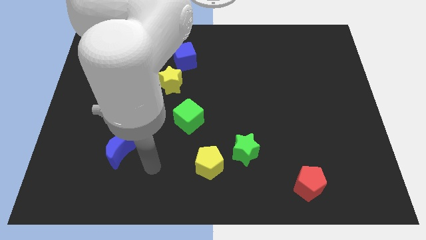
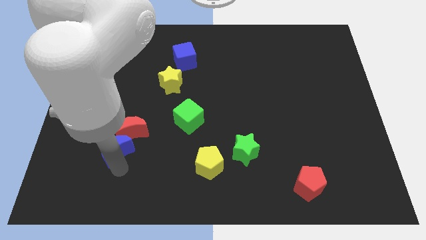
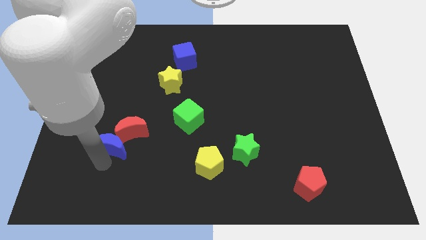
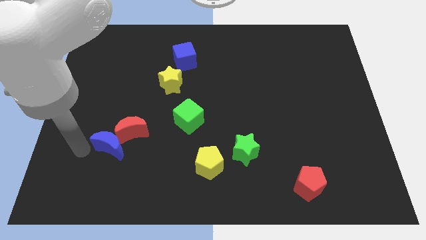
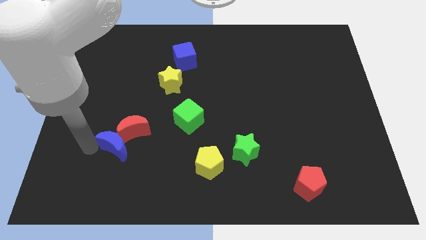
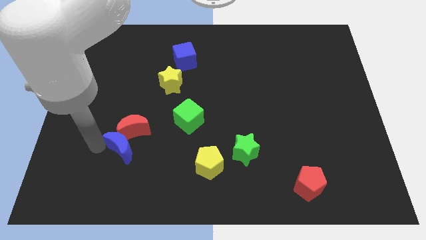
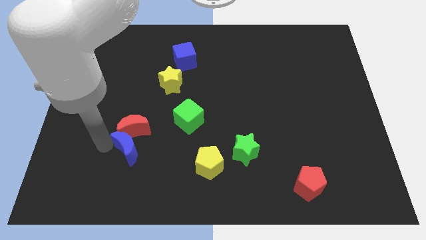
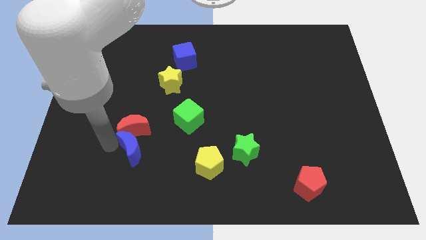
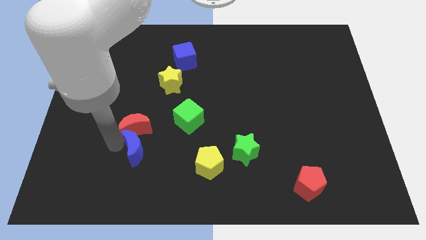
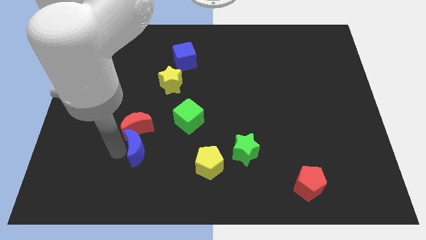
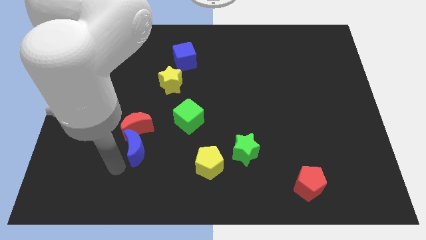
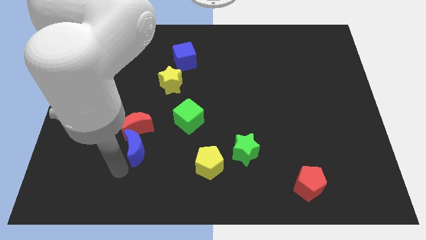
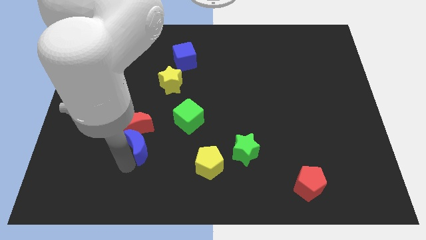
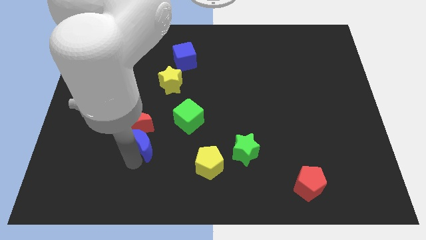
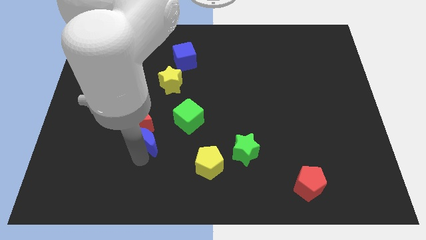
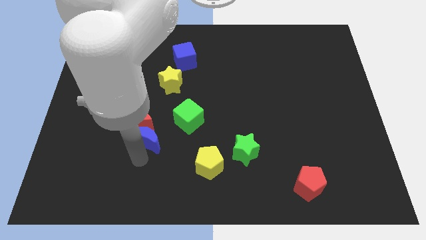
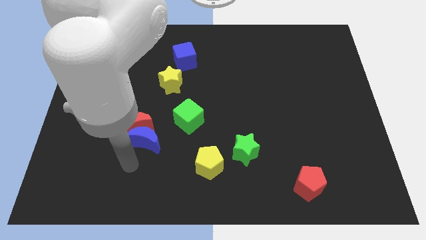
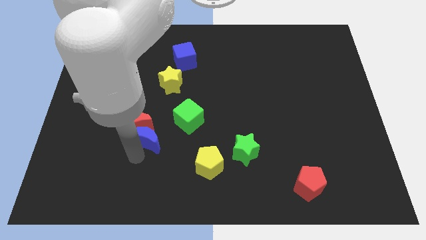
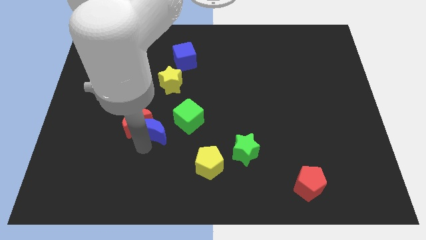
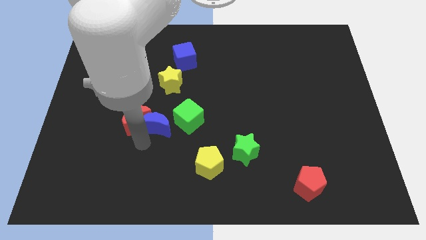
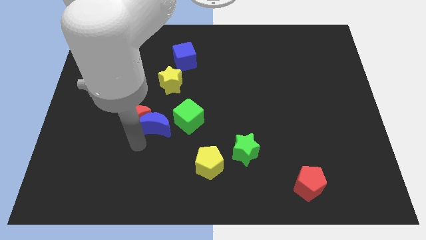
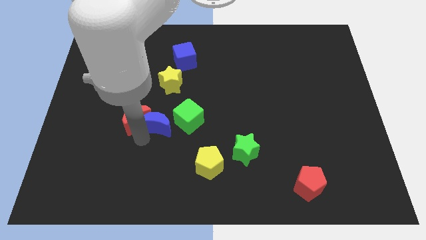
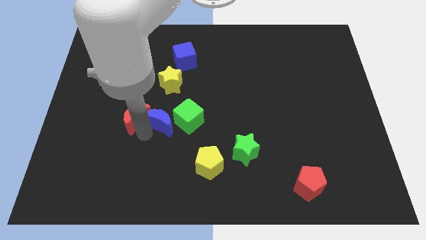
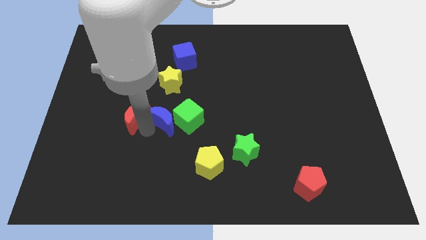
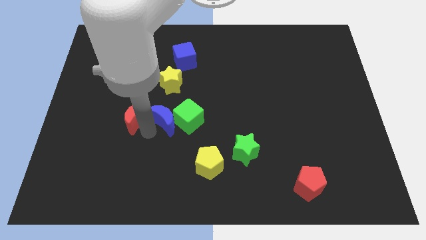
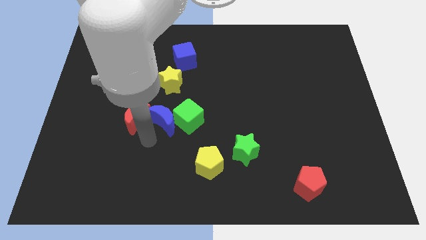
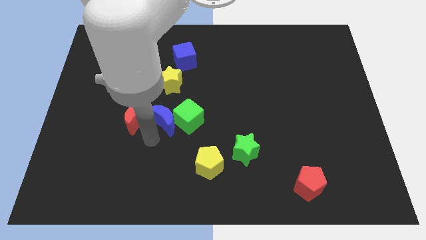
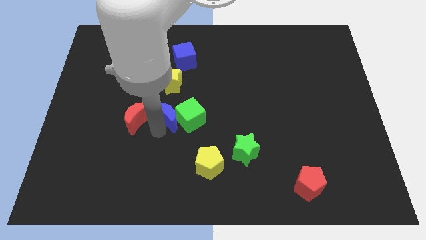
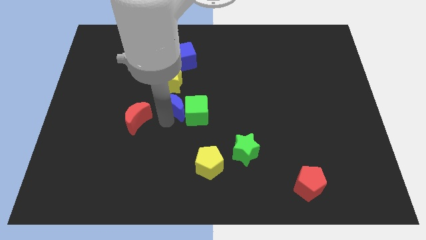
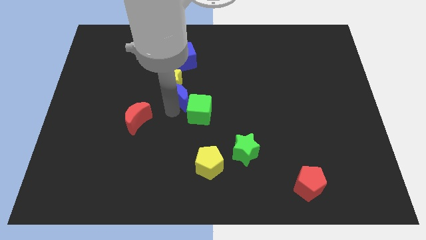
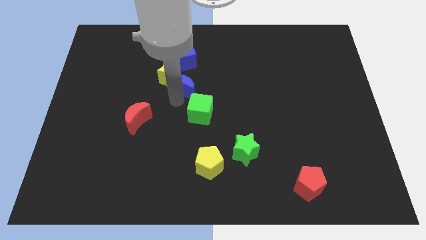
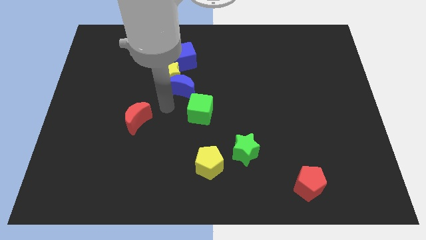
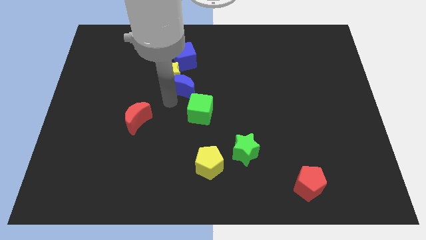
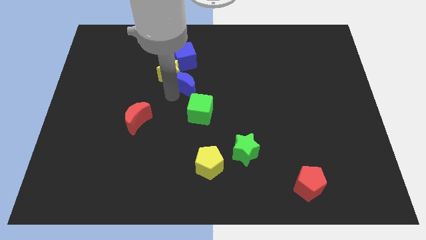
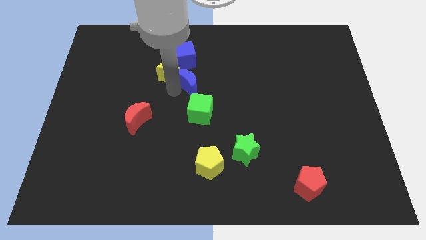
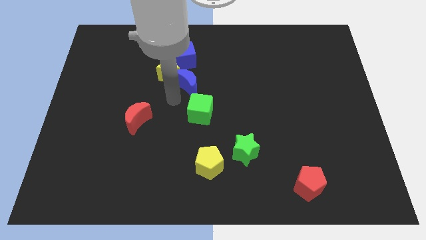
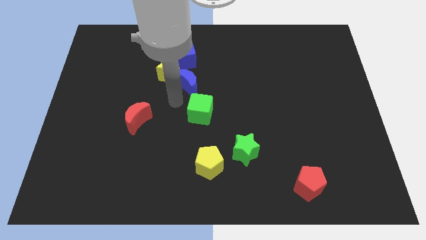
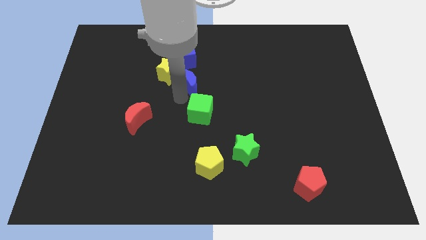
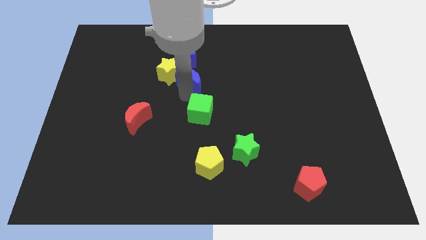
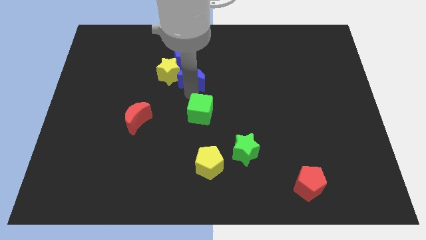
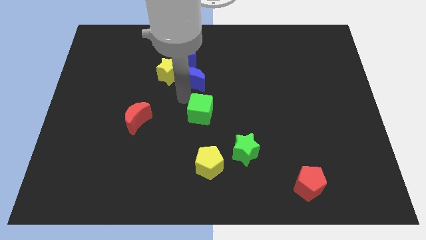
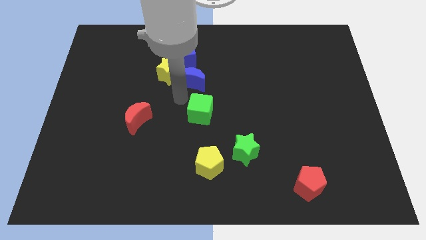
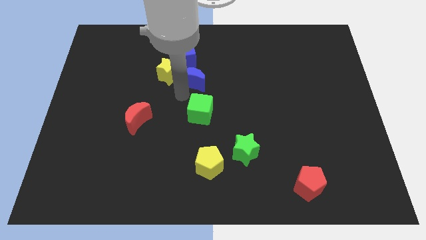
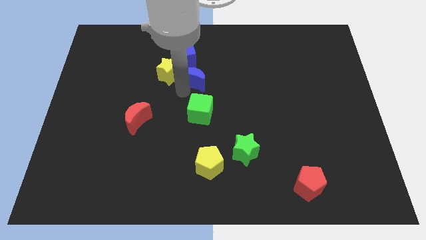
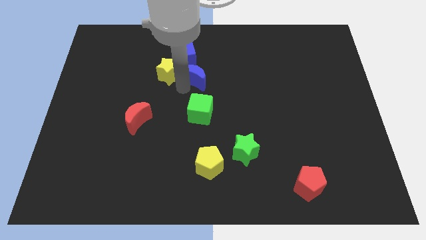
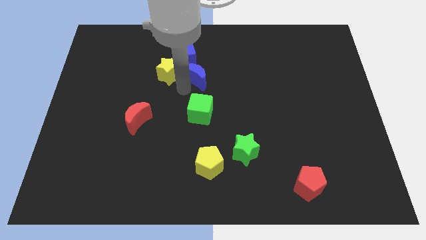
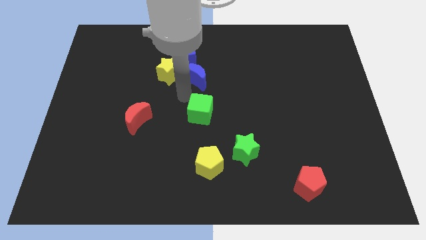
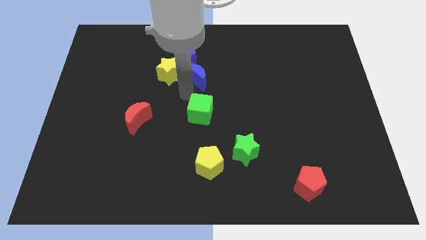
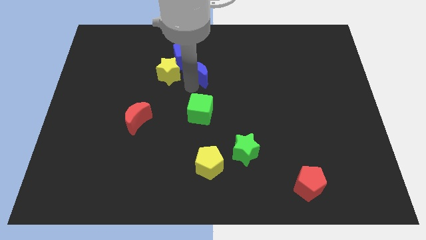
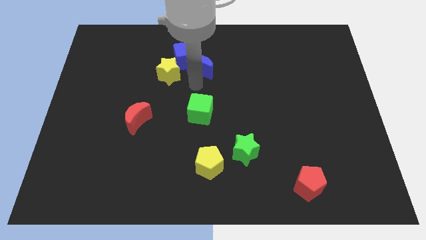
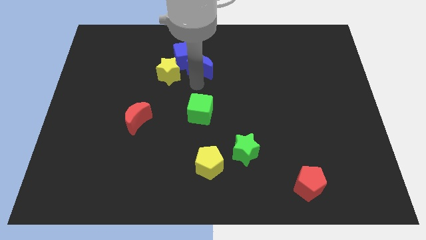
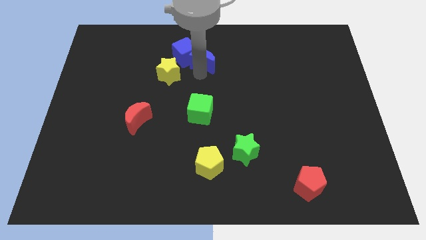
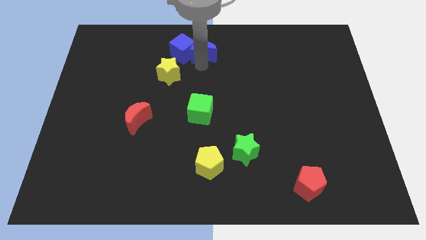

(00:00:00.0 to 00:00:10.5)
move the blue moon to the top

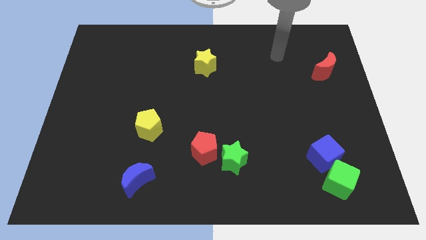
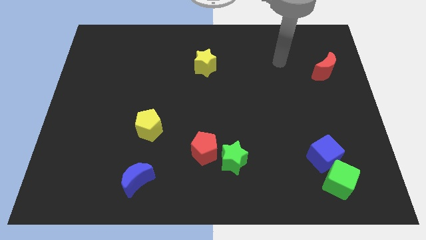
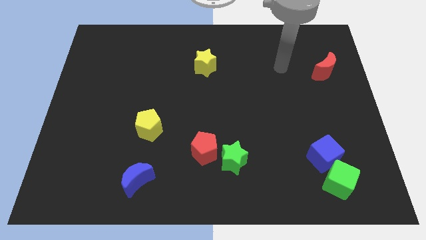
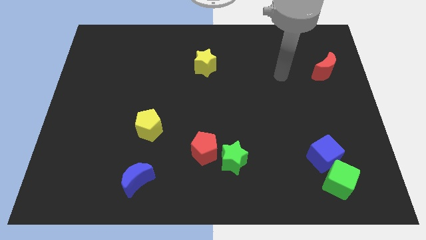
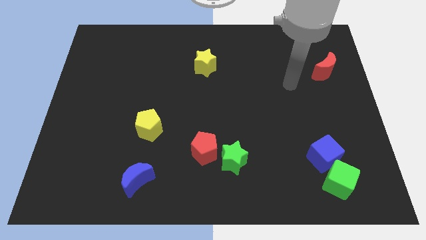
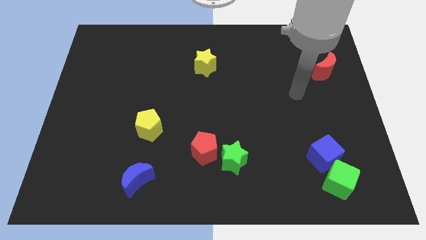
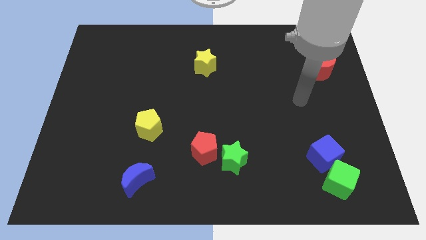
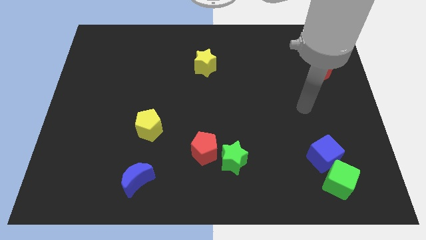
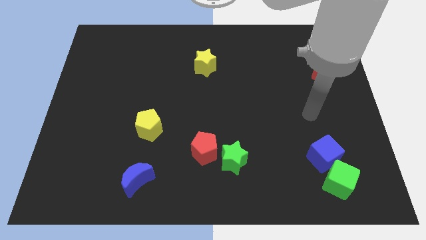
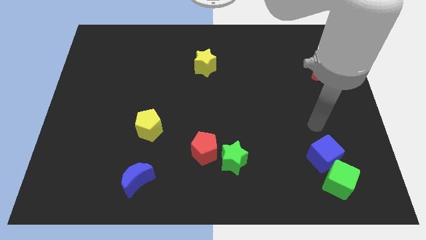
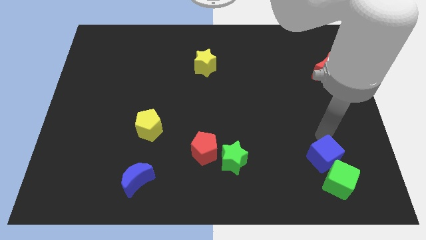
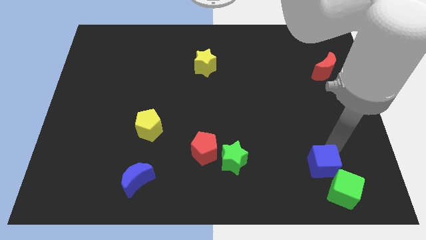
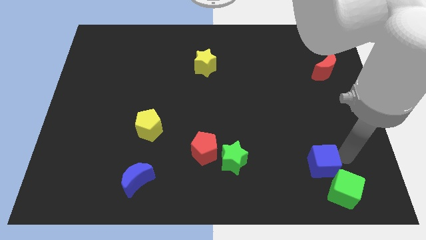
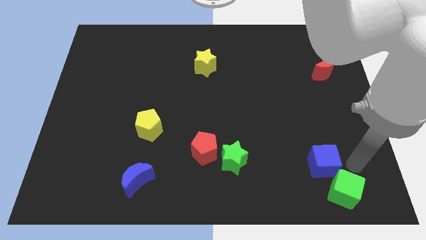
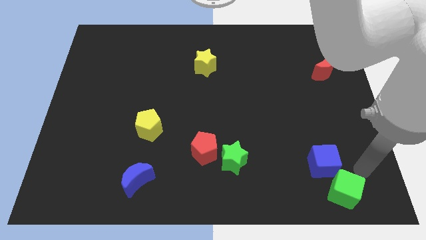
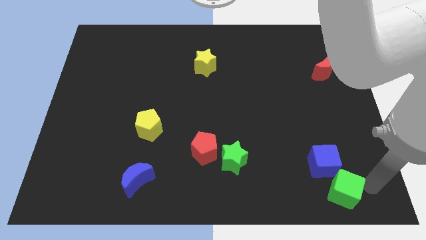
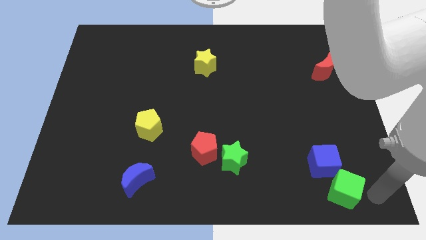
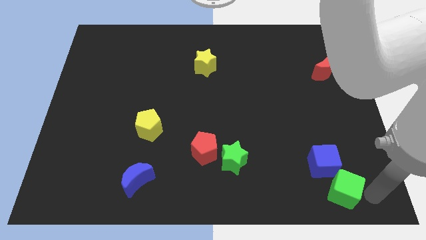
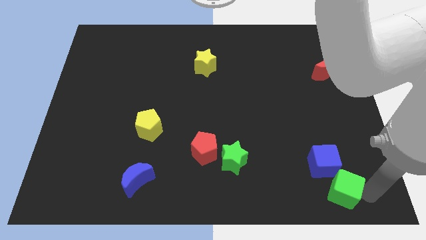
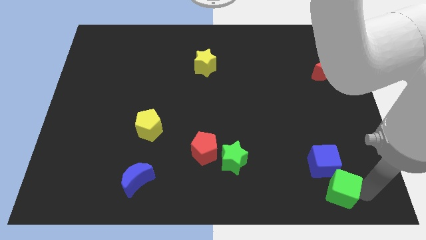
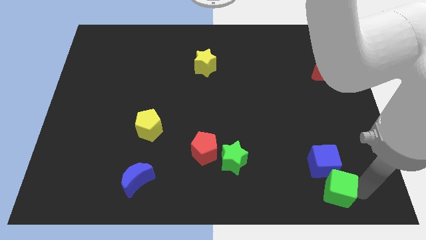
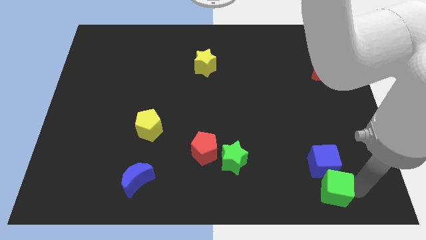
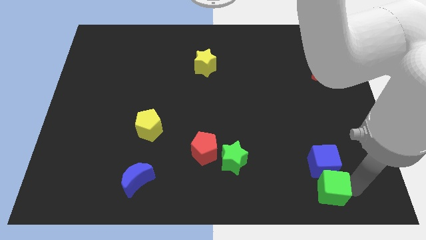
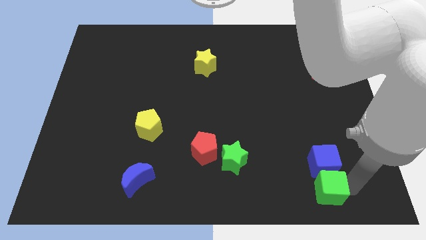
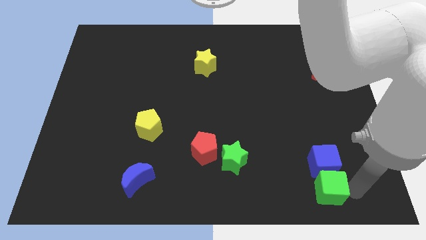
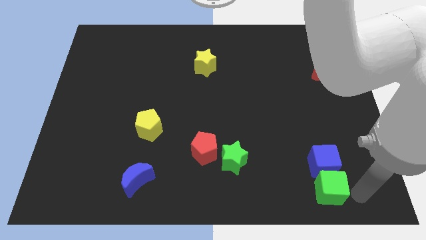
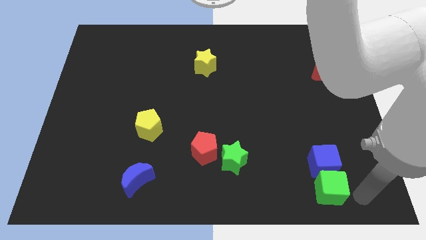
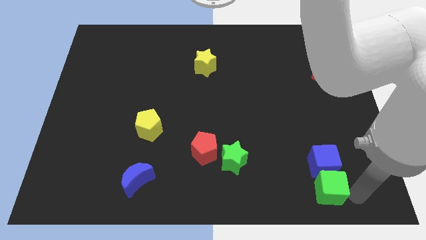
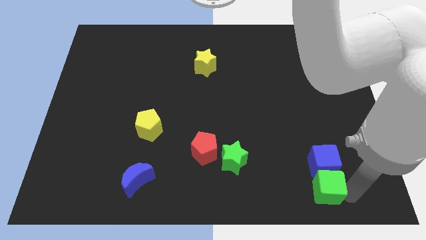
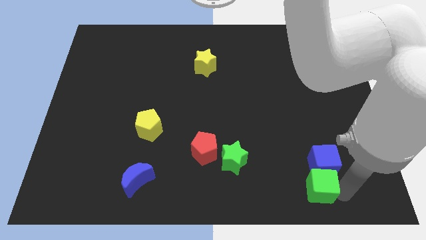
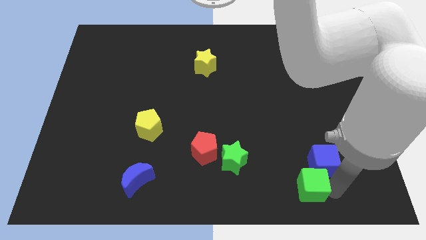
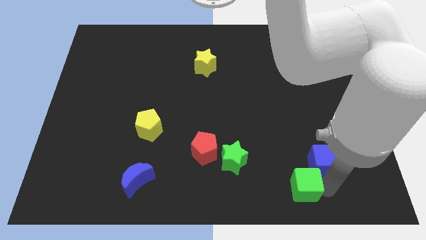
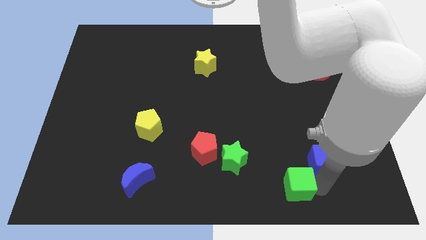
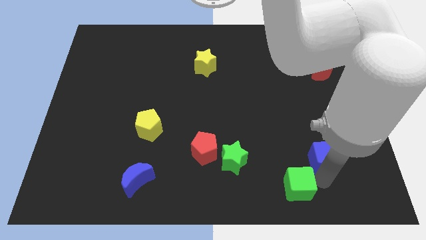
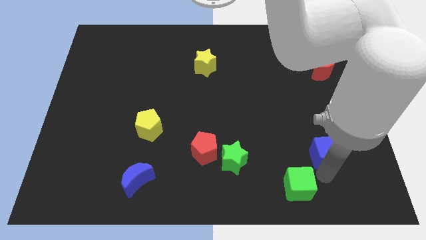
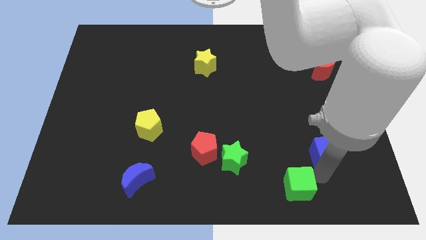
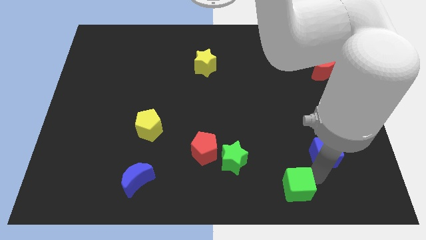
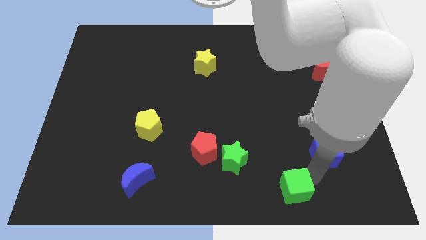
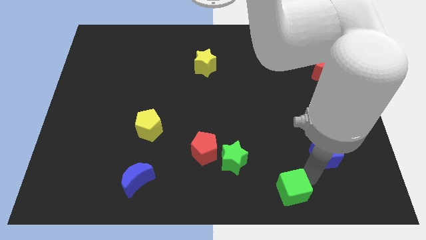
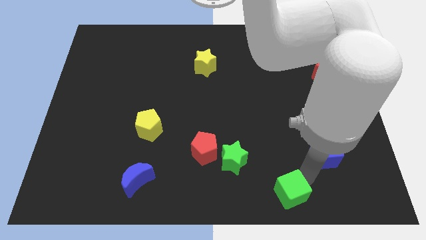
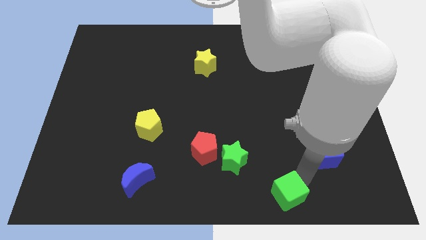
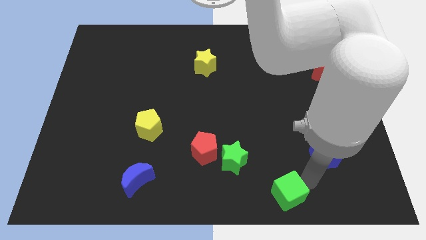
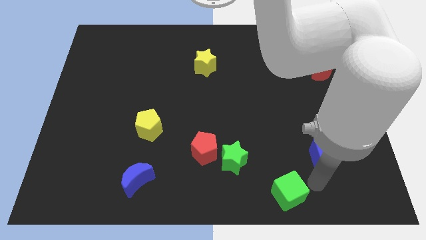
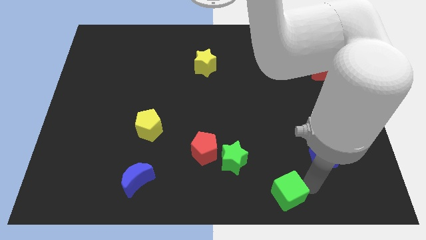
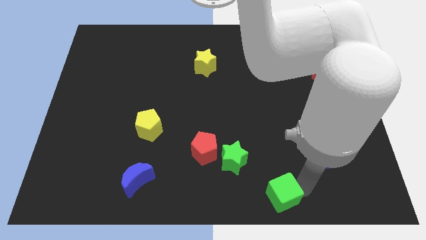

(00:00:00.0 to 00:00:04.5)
push the green cube to the bottom
